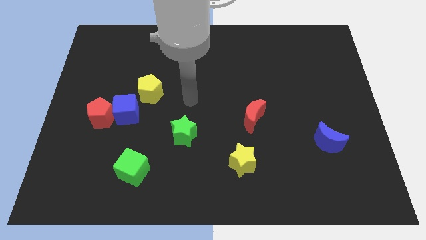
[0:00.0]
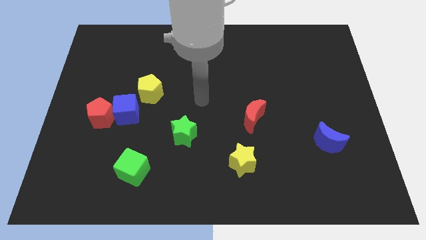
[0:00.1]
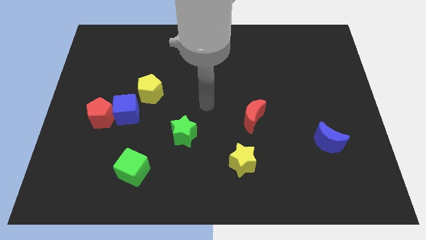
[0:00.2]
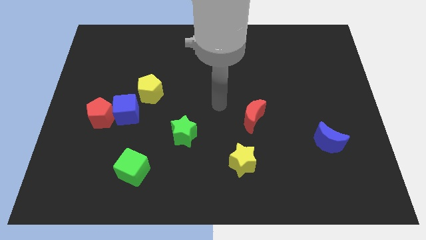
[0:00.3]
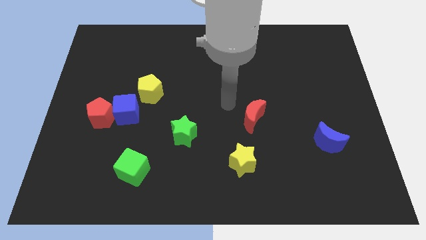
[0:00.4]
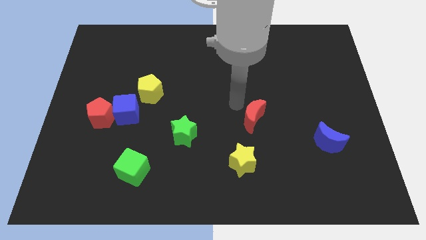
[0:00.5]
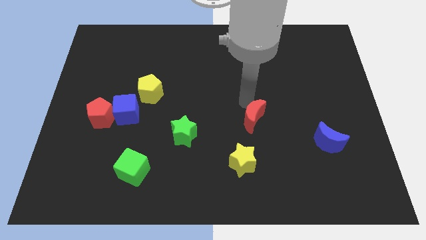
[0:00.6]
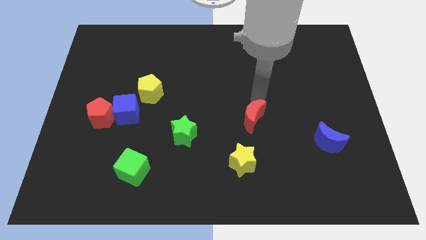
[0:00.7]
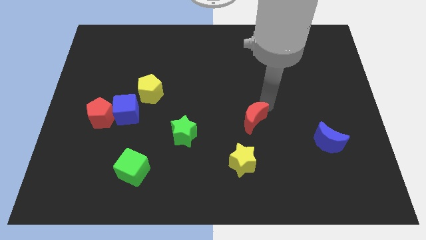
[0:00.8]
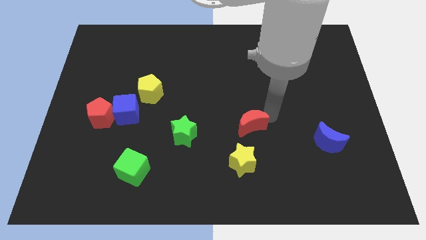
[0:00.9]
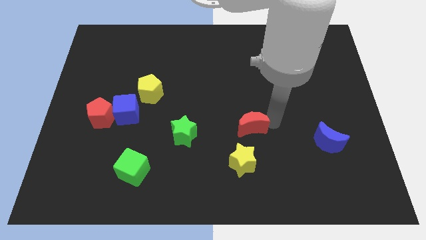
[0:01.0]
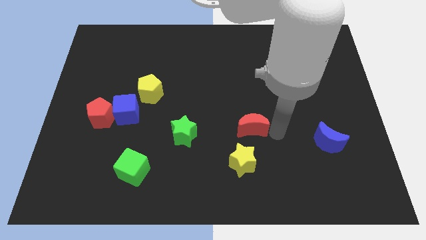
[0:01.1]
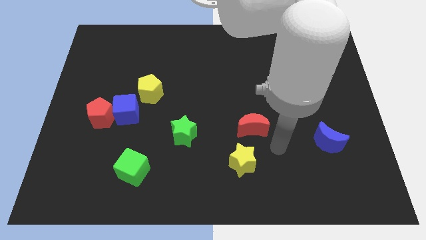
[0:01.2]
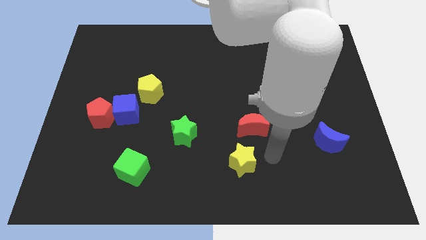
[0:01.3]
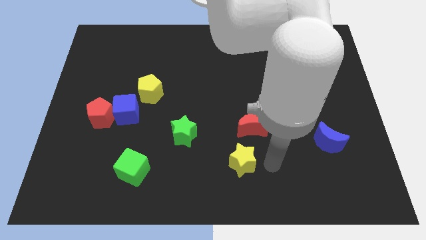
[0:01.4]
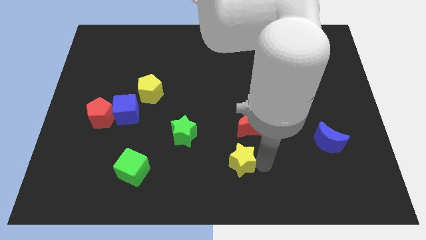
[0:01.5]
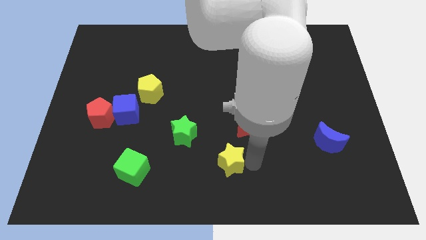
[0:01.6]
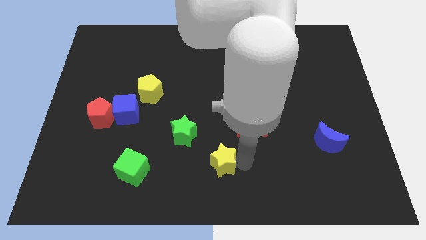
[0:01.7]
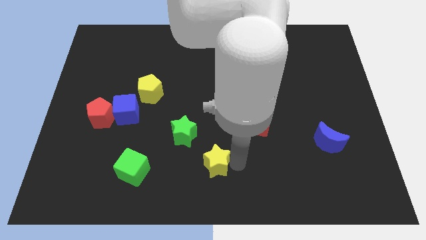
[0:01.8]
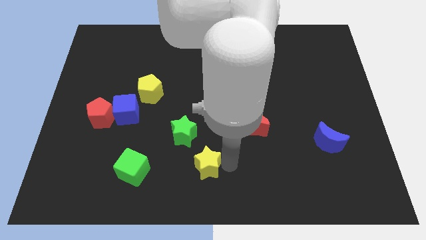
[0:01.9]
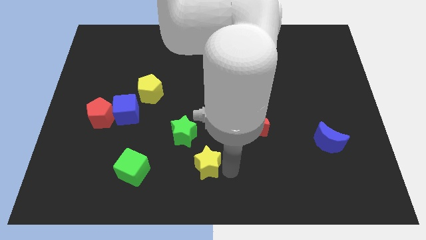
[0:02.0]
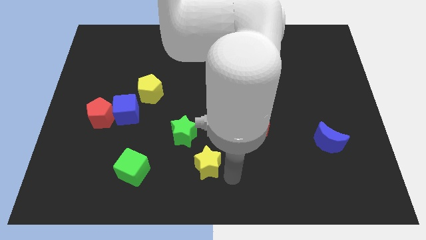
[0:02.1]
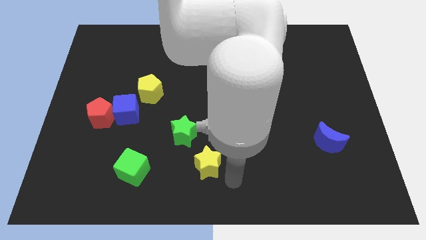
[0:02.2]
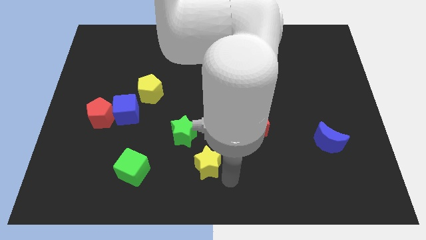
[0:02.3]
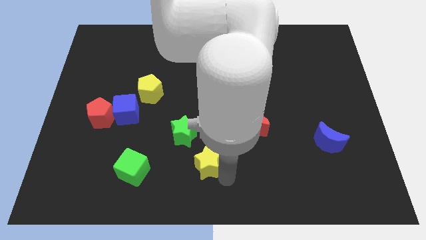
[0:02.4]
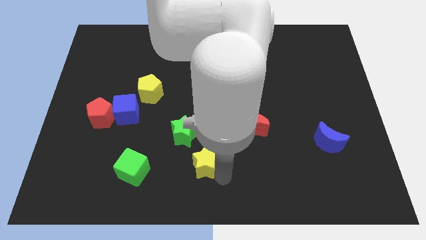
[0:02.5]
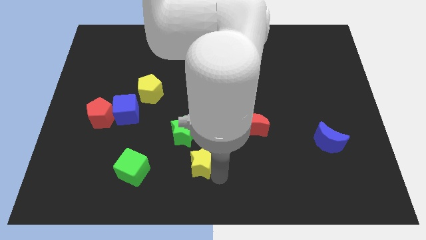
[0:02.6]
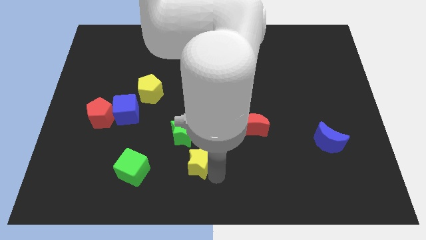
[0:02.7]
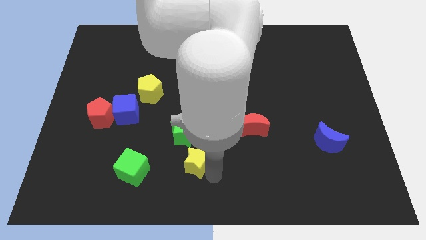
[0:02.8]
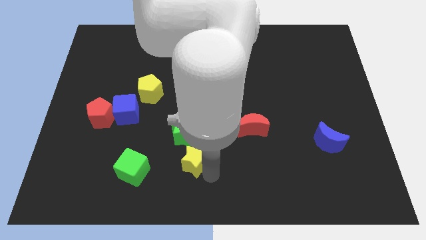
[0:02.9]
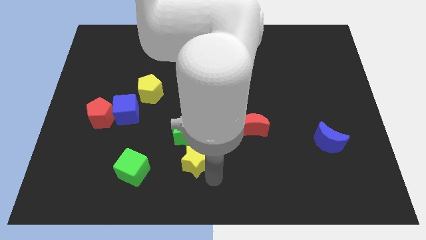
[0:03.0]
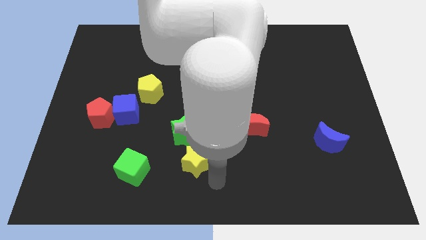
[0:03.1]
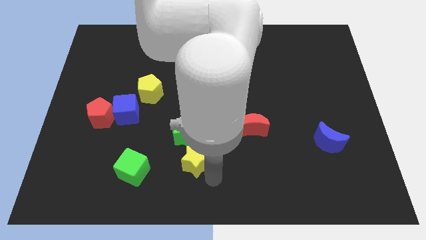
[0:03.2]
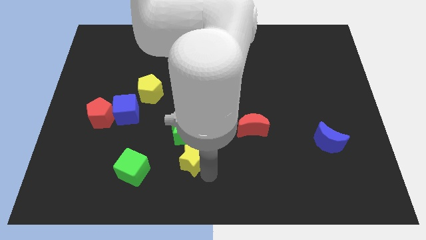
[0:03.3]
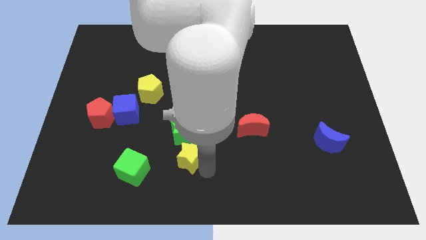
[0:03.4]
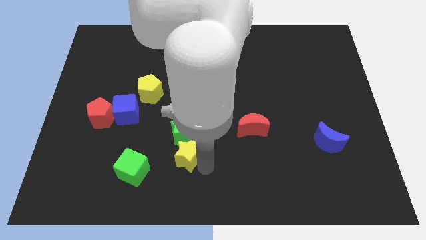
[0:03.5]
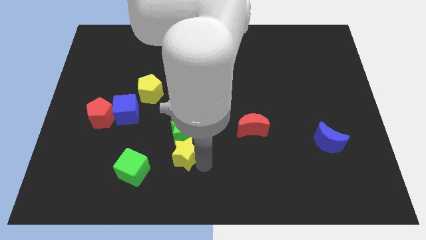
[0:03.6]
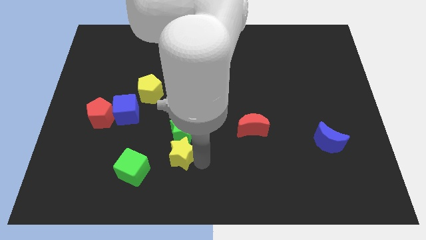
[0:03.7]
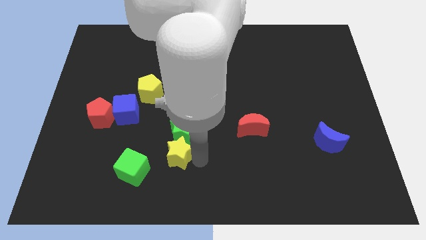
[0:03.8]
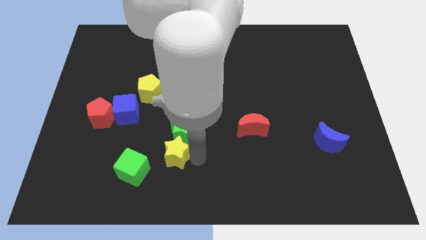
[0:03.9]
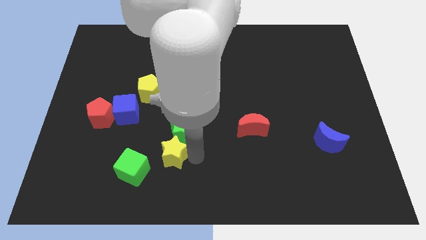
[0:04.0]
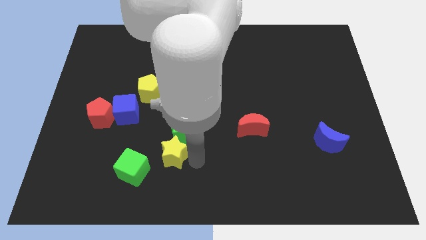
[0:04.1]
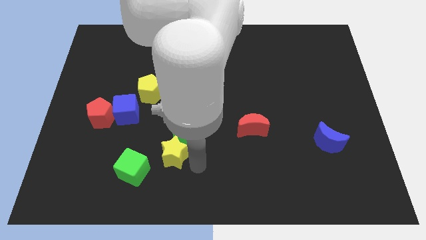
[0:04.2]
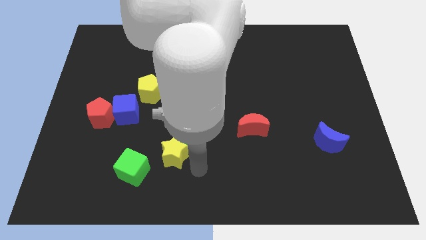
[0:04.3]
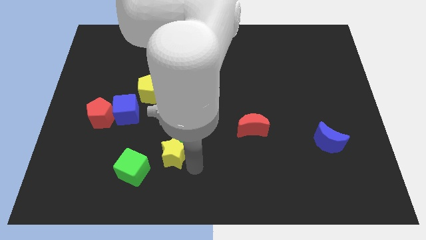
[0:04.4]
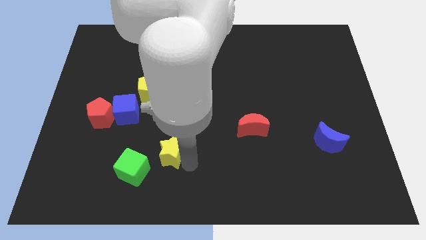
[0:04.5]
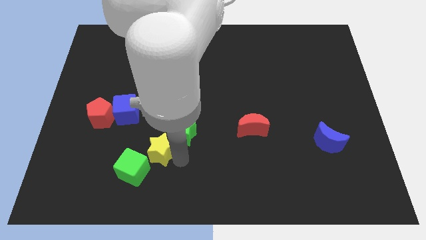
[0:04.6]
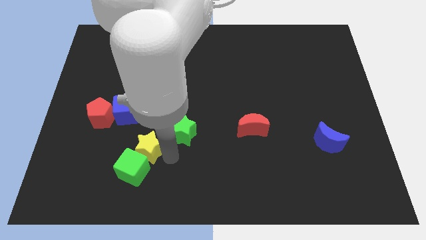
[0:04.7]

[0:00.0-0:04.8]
put the yellow star to the top of the green cube

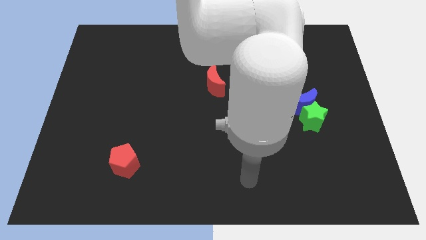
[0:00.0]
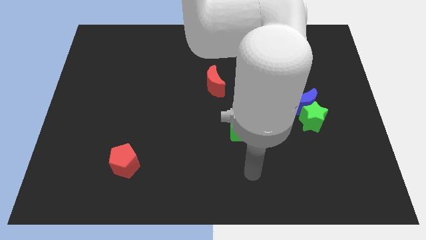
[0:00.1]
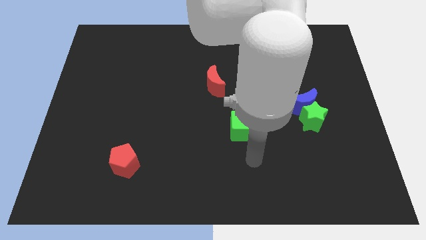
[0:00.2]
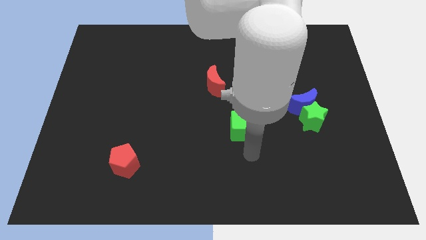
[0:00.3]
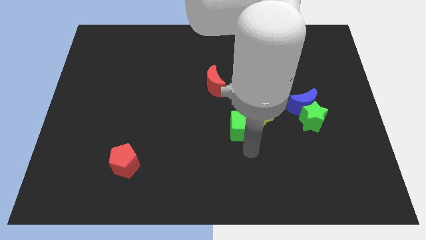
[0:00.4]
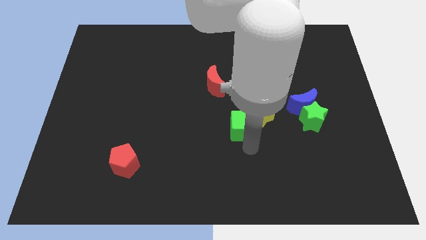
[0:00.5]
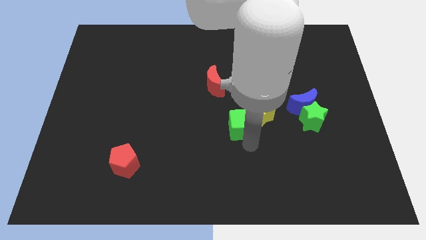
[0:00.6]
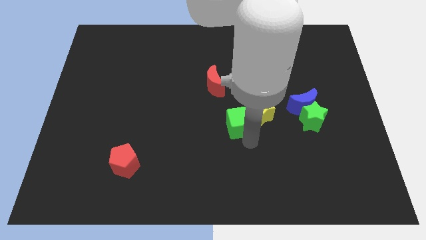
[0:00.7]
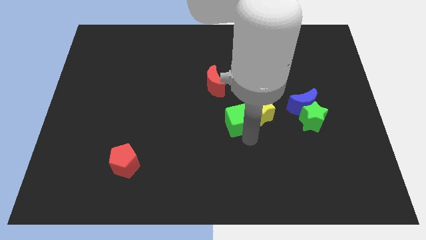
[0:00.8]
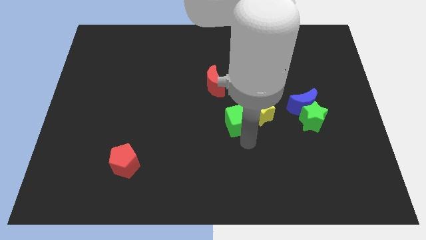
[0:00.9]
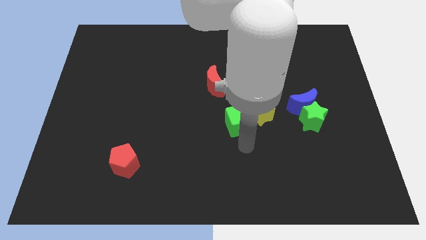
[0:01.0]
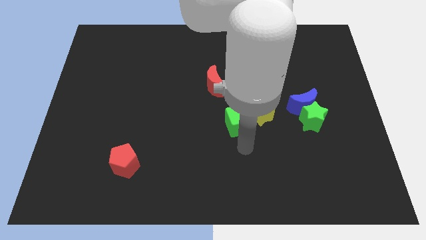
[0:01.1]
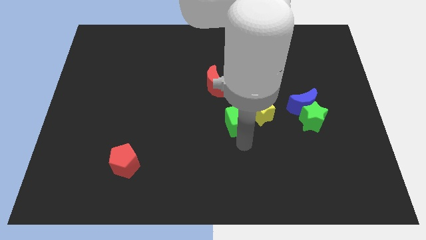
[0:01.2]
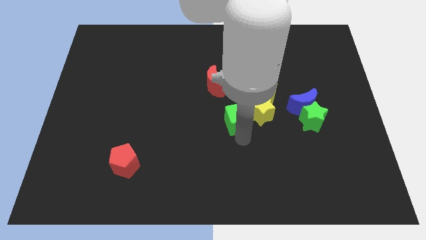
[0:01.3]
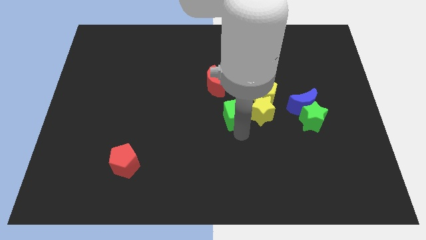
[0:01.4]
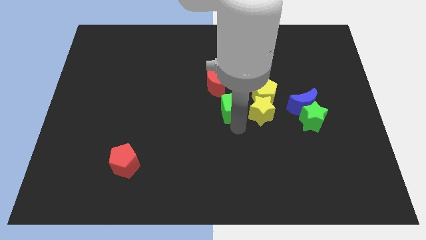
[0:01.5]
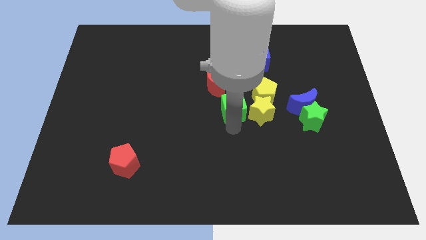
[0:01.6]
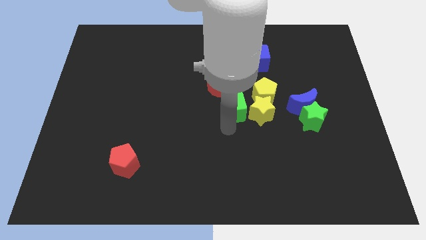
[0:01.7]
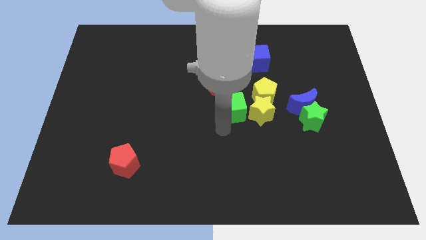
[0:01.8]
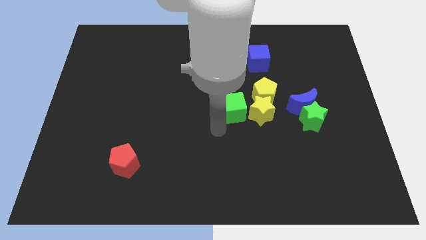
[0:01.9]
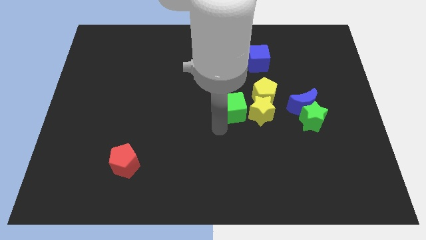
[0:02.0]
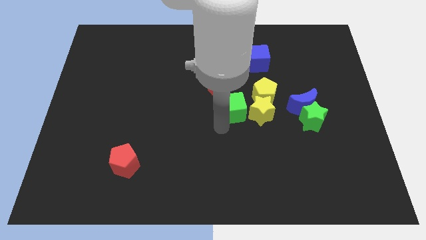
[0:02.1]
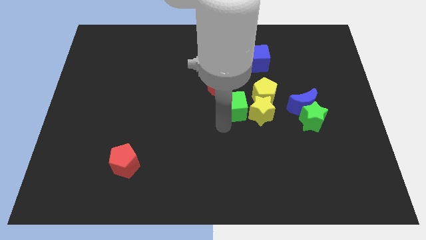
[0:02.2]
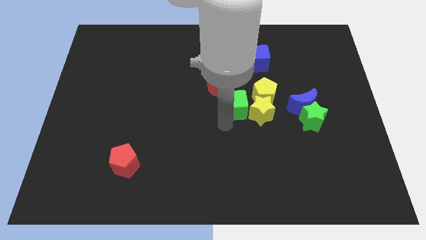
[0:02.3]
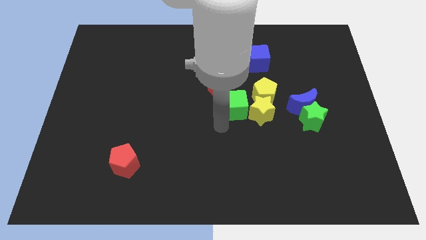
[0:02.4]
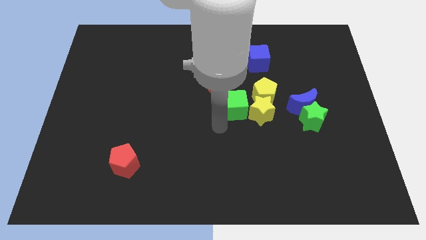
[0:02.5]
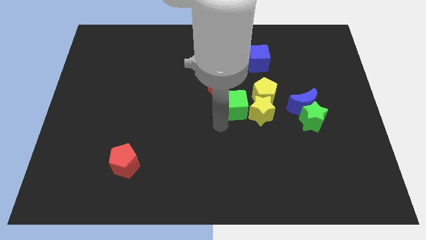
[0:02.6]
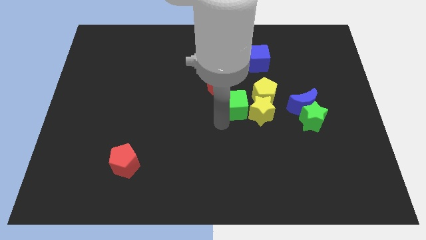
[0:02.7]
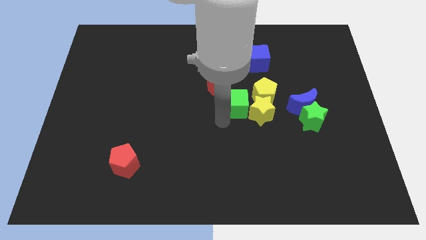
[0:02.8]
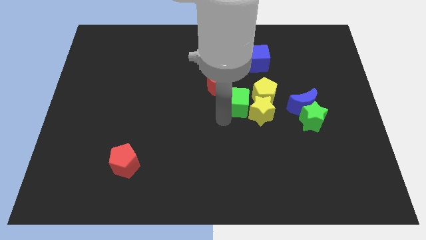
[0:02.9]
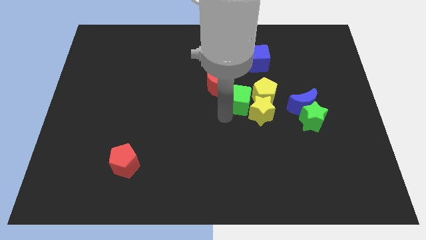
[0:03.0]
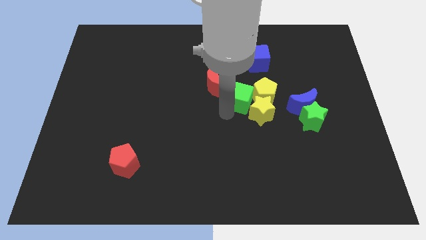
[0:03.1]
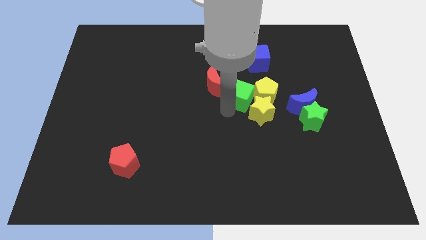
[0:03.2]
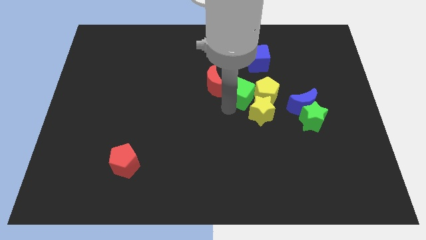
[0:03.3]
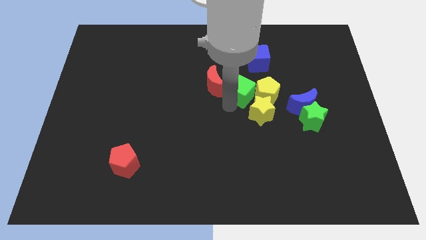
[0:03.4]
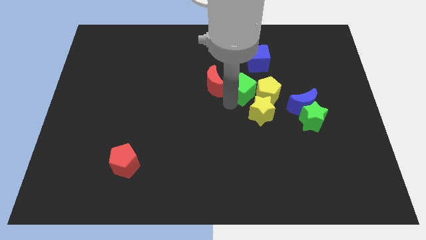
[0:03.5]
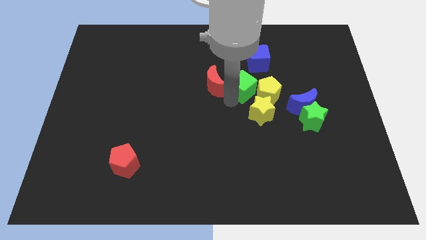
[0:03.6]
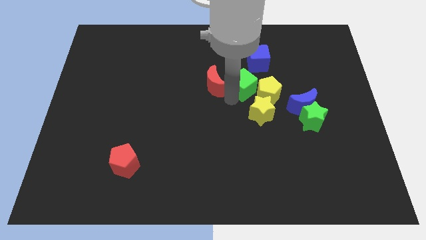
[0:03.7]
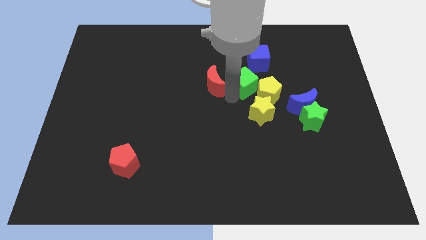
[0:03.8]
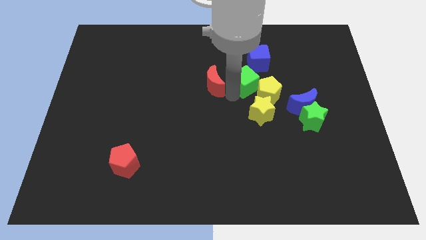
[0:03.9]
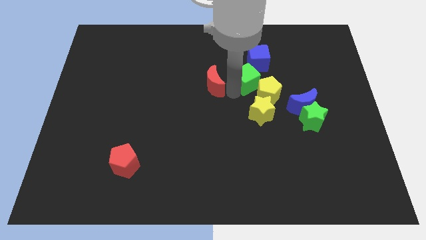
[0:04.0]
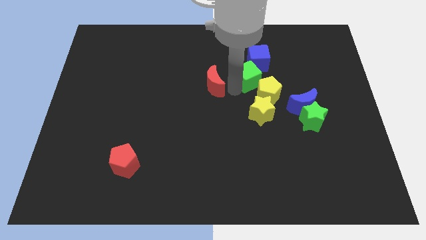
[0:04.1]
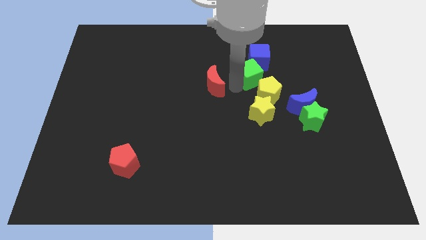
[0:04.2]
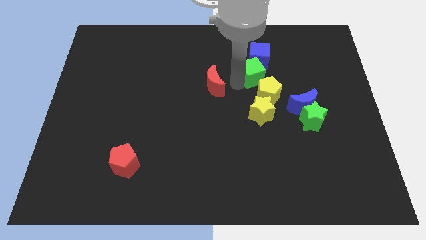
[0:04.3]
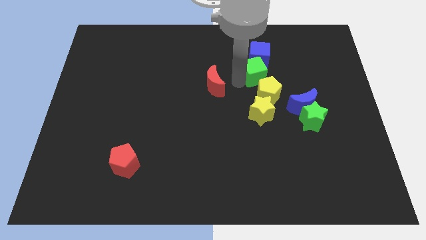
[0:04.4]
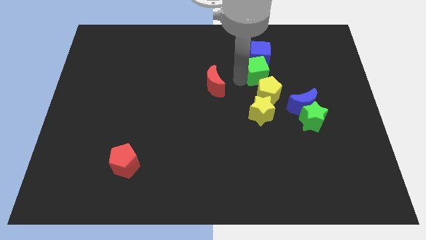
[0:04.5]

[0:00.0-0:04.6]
put the green cube diagonally down and to the right of the blue cube
